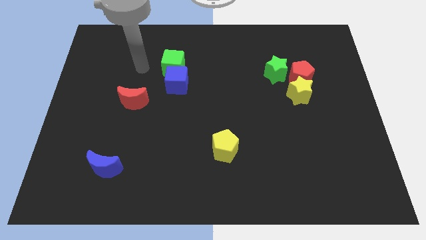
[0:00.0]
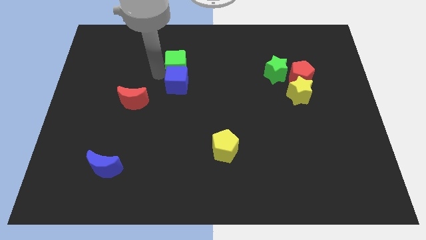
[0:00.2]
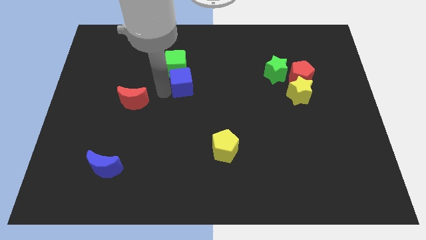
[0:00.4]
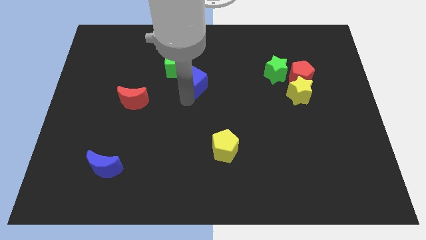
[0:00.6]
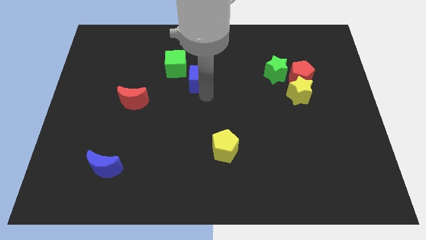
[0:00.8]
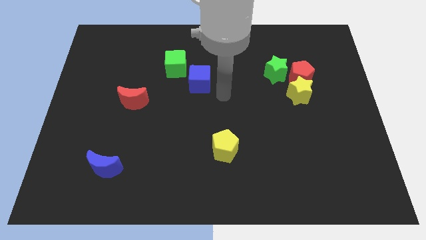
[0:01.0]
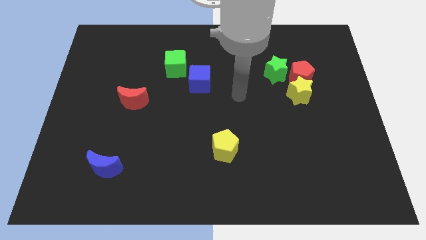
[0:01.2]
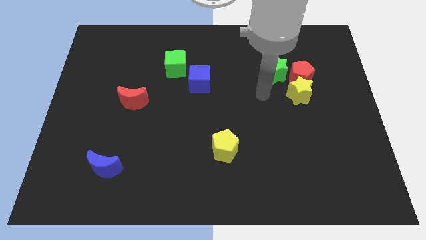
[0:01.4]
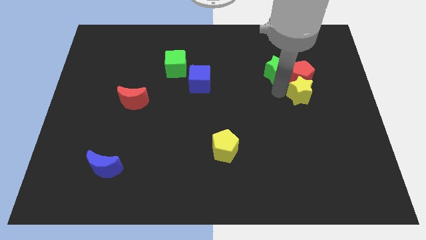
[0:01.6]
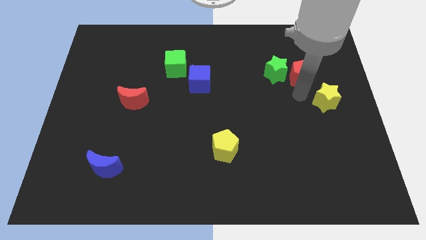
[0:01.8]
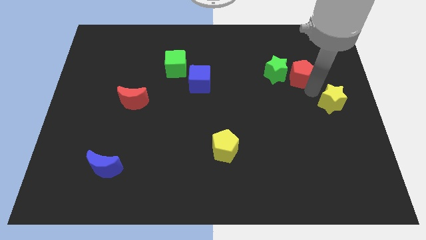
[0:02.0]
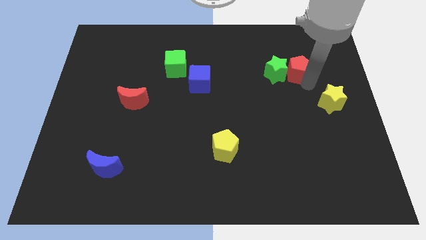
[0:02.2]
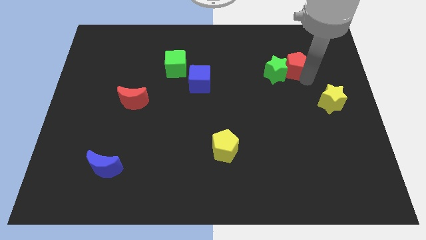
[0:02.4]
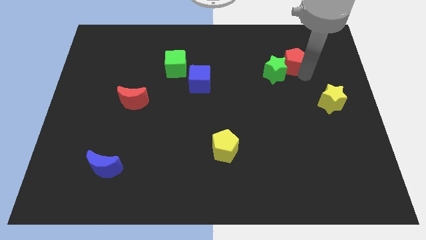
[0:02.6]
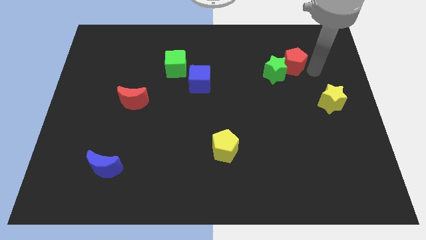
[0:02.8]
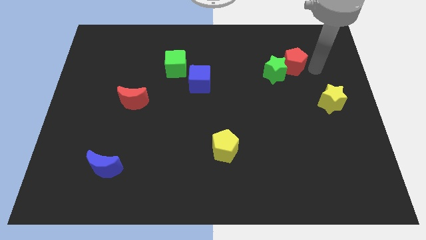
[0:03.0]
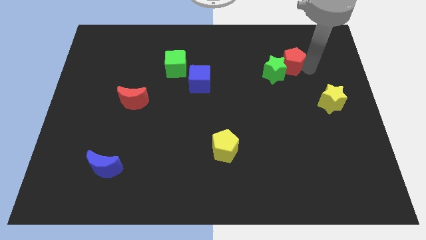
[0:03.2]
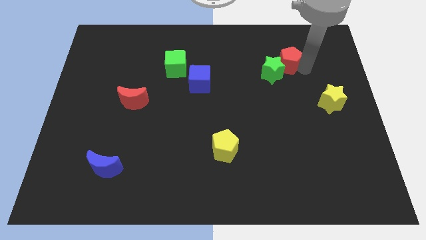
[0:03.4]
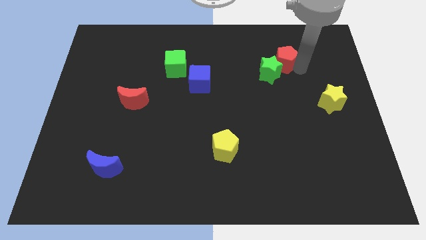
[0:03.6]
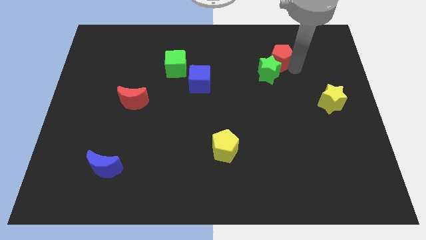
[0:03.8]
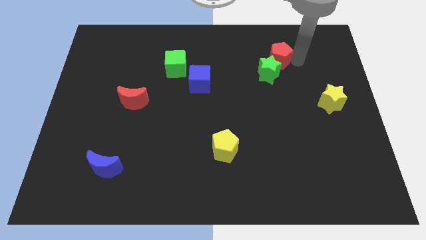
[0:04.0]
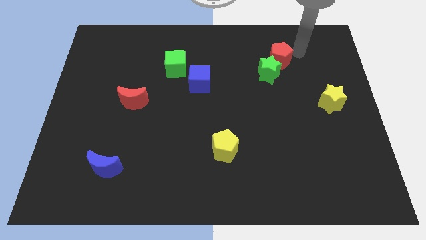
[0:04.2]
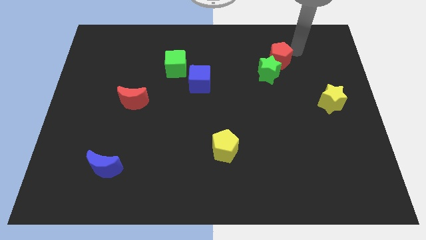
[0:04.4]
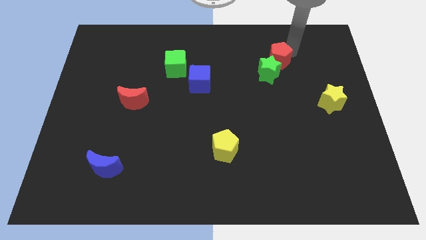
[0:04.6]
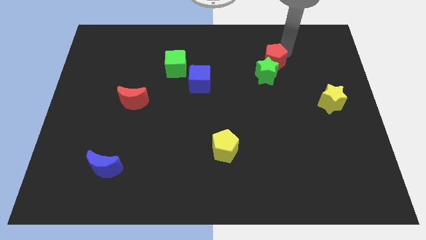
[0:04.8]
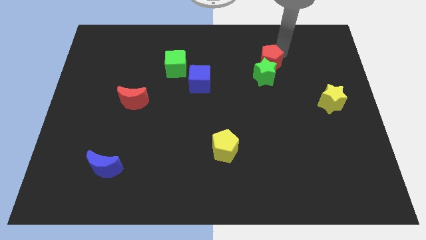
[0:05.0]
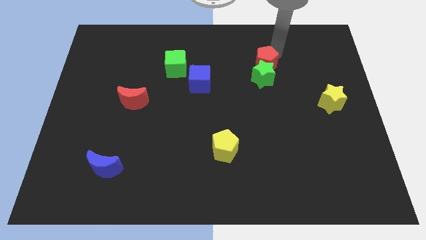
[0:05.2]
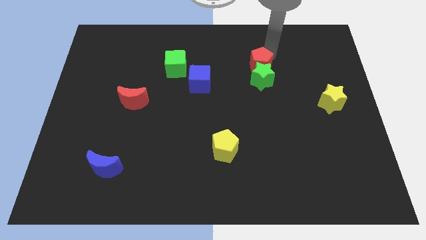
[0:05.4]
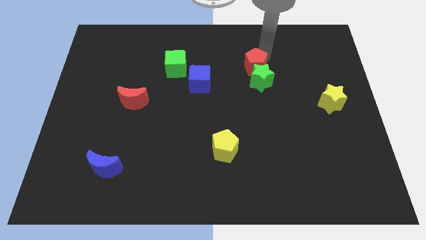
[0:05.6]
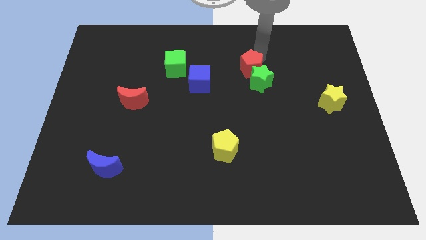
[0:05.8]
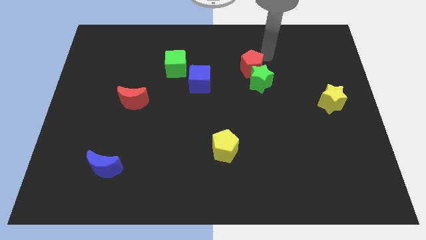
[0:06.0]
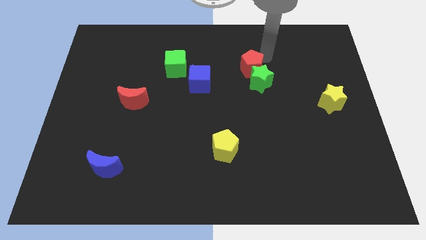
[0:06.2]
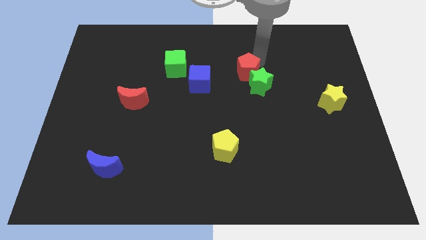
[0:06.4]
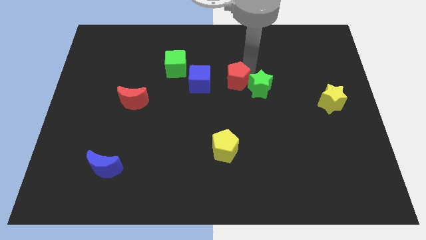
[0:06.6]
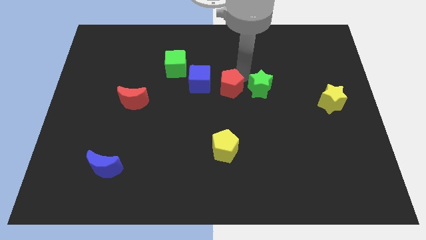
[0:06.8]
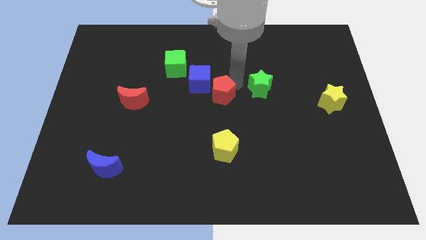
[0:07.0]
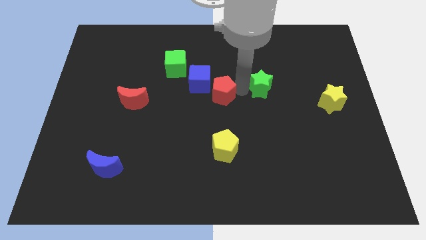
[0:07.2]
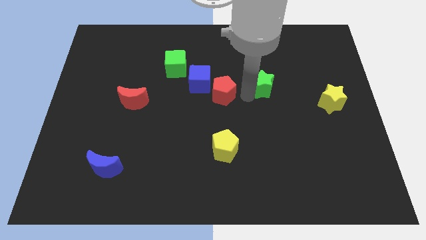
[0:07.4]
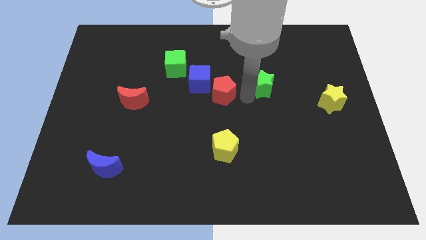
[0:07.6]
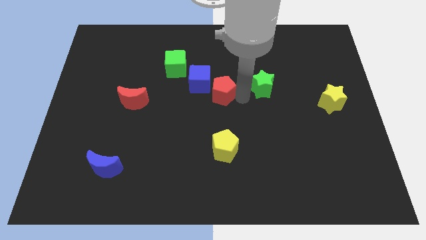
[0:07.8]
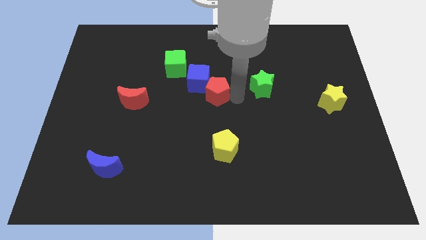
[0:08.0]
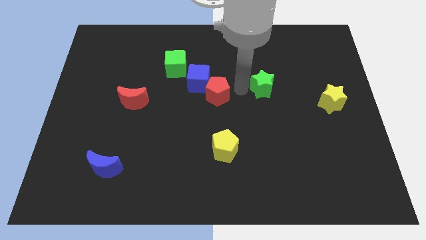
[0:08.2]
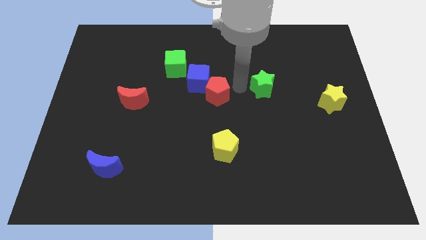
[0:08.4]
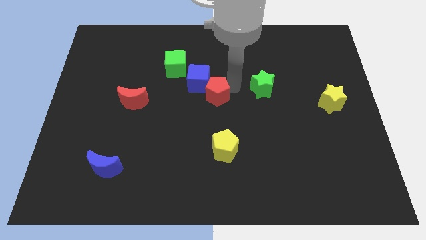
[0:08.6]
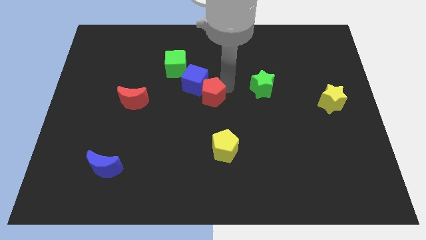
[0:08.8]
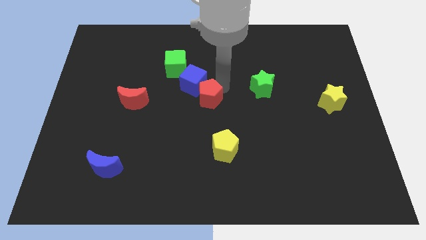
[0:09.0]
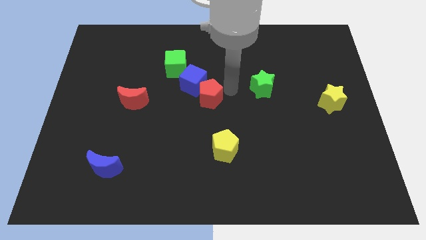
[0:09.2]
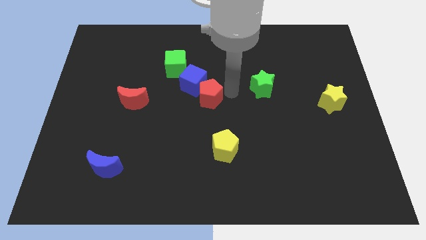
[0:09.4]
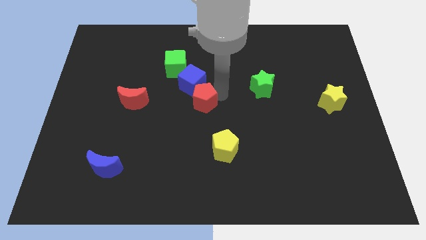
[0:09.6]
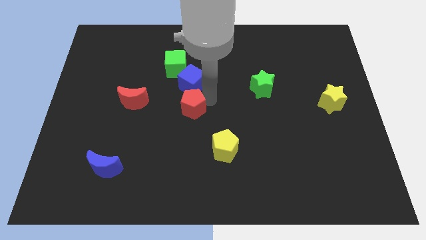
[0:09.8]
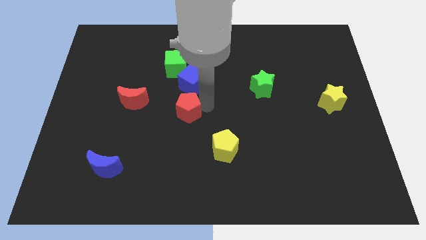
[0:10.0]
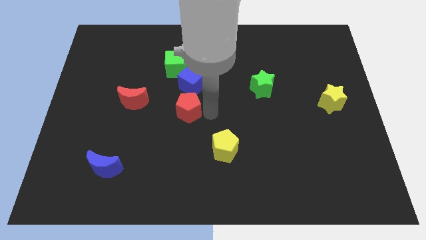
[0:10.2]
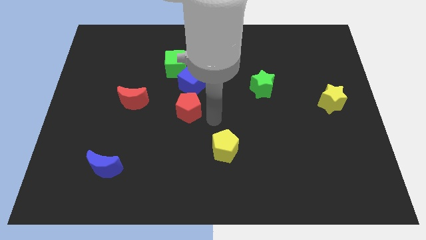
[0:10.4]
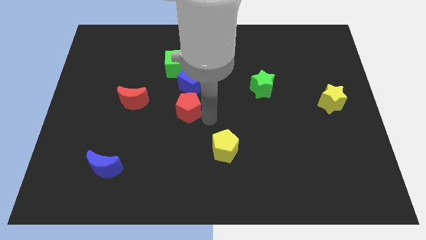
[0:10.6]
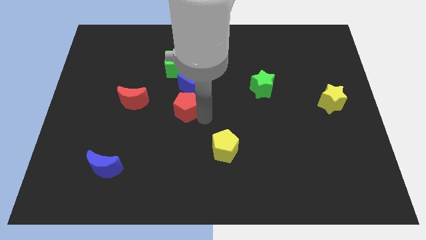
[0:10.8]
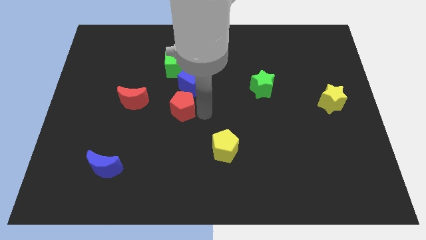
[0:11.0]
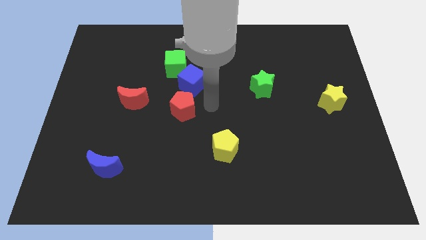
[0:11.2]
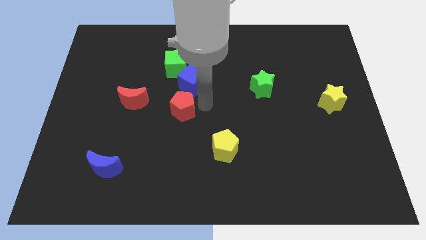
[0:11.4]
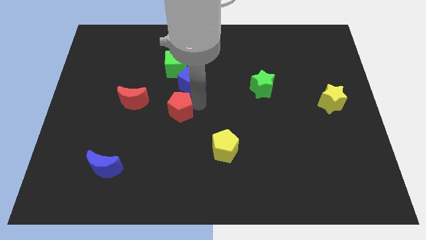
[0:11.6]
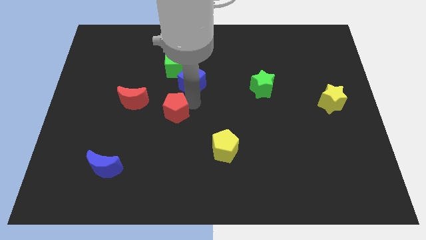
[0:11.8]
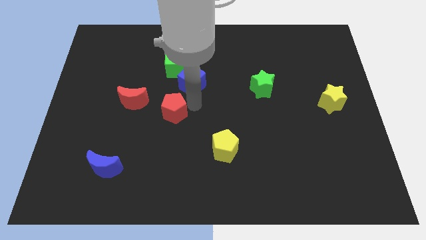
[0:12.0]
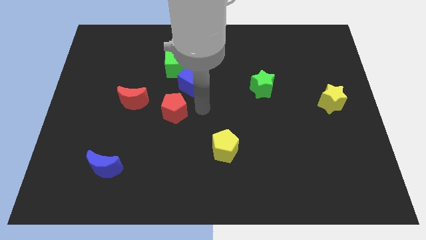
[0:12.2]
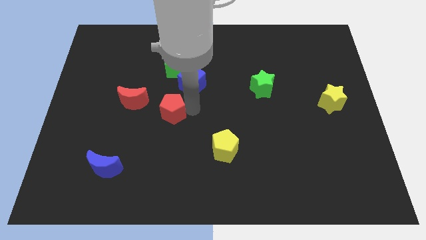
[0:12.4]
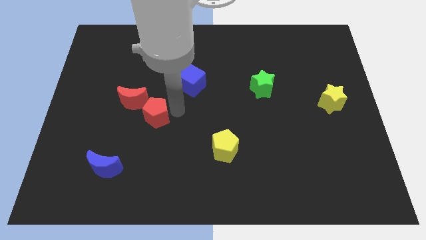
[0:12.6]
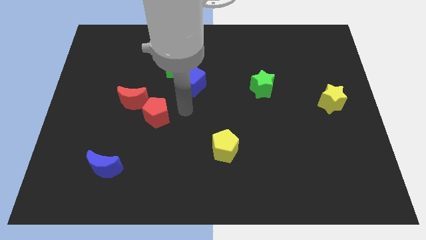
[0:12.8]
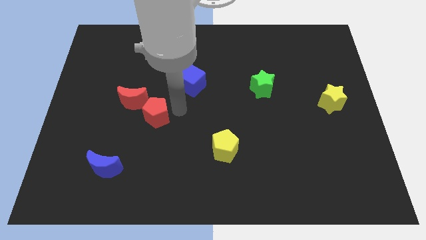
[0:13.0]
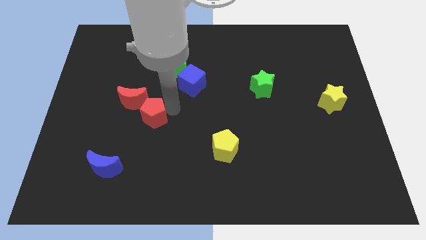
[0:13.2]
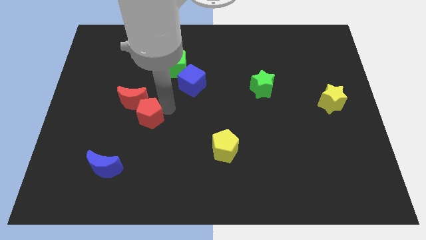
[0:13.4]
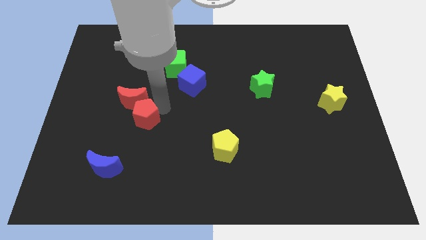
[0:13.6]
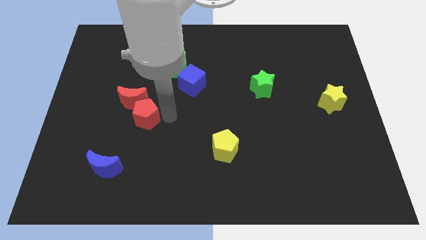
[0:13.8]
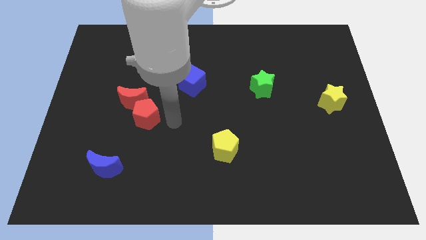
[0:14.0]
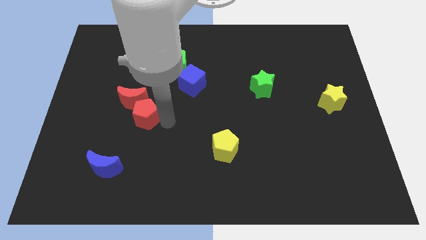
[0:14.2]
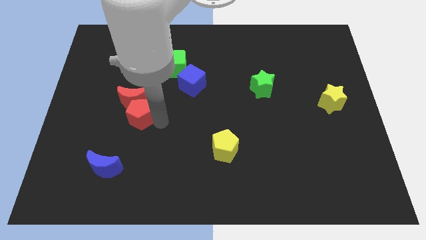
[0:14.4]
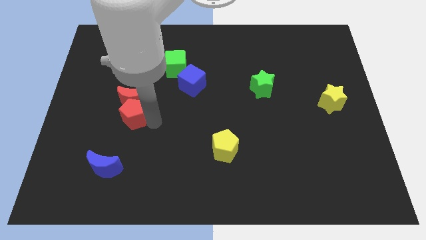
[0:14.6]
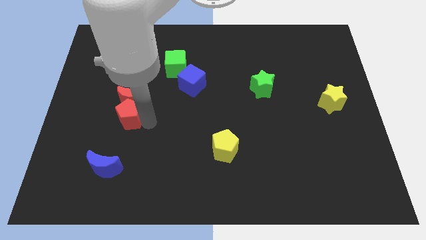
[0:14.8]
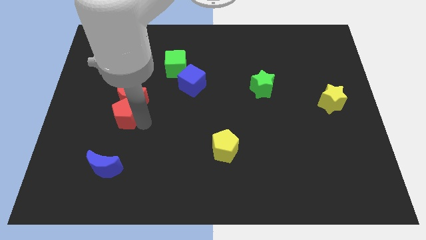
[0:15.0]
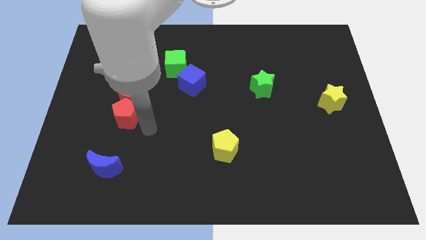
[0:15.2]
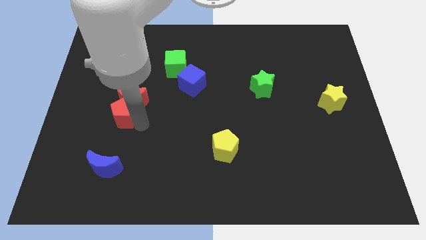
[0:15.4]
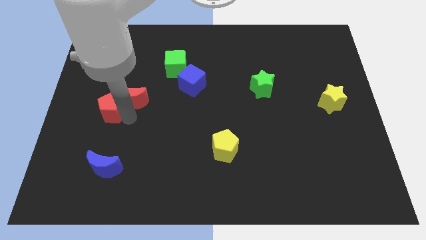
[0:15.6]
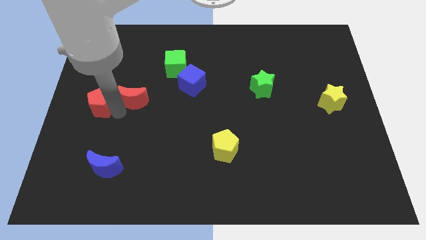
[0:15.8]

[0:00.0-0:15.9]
put the red pentagon to the left side
